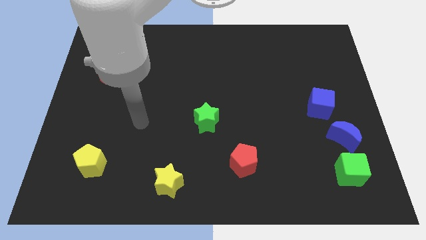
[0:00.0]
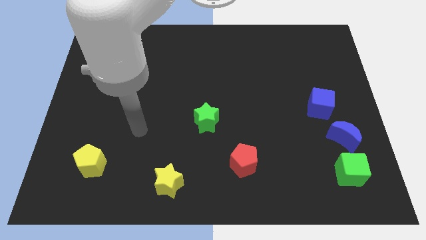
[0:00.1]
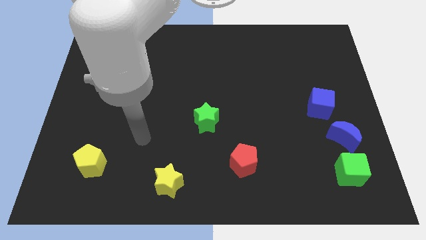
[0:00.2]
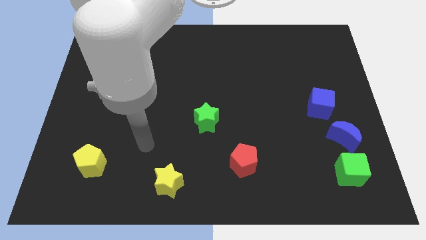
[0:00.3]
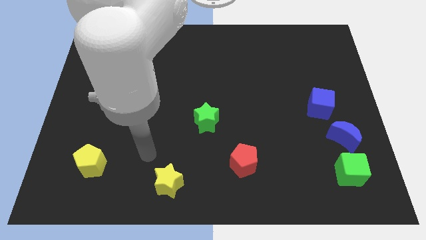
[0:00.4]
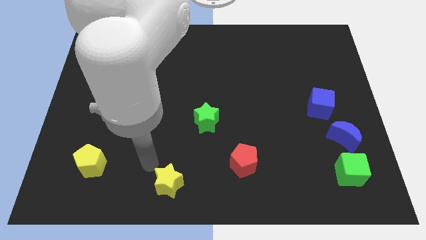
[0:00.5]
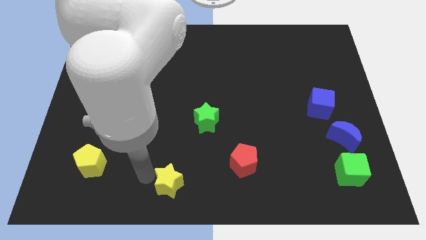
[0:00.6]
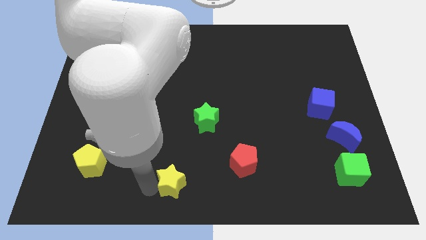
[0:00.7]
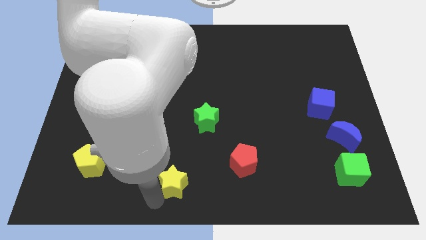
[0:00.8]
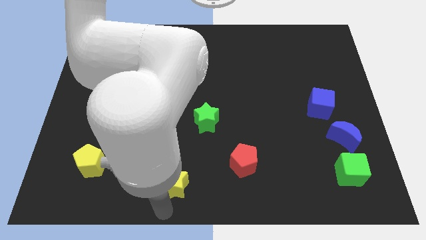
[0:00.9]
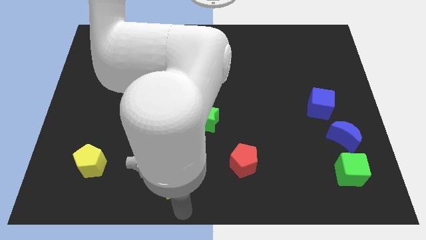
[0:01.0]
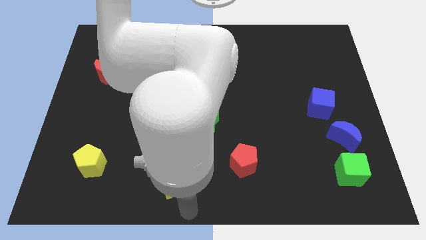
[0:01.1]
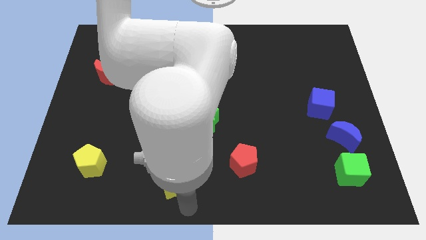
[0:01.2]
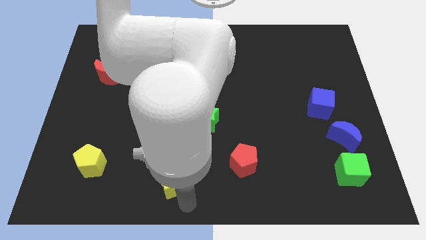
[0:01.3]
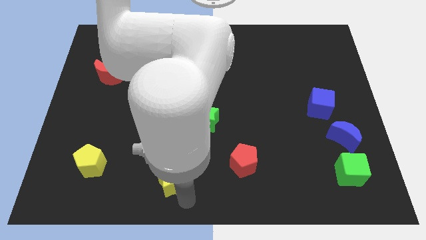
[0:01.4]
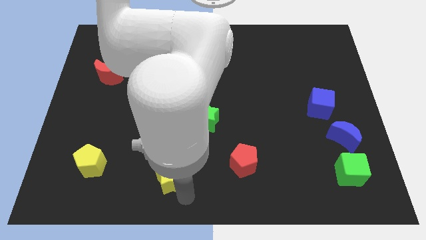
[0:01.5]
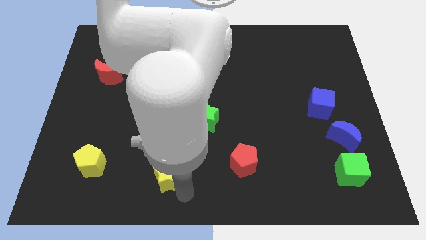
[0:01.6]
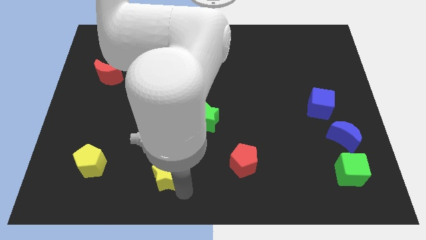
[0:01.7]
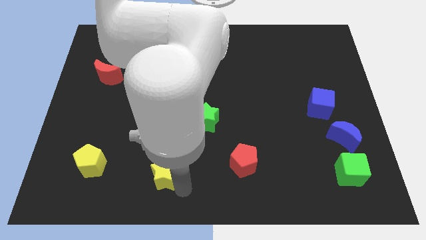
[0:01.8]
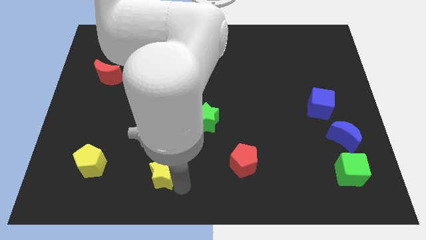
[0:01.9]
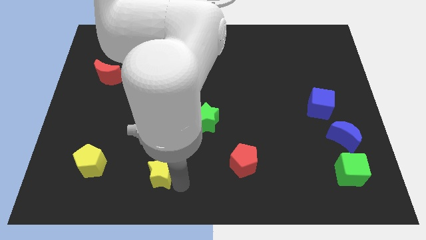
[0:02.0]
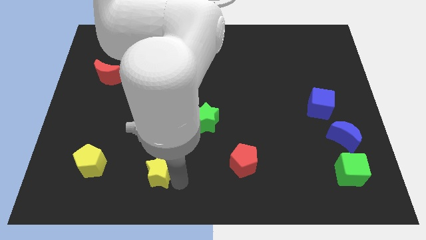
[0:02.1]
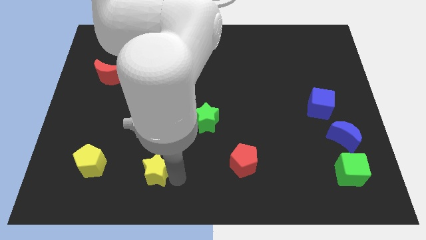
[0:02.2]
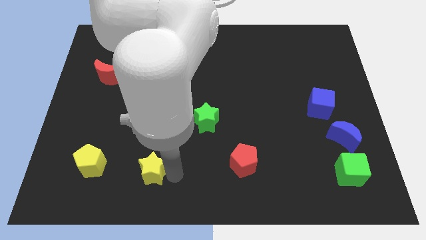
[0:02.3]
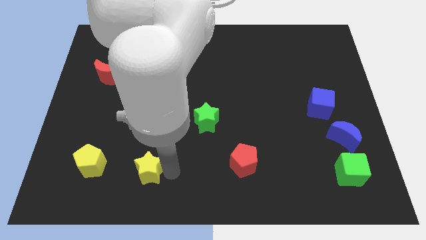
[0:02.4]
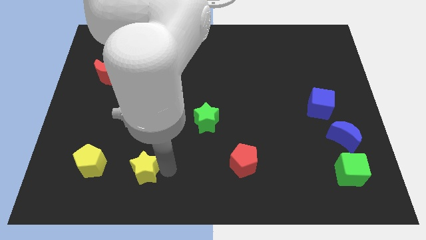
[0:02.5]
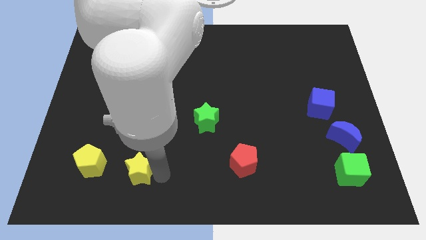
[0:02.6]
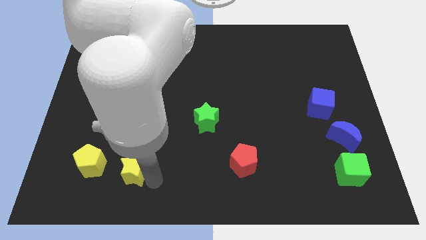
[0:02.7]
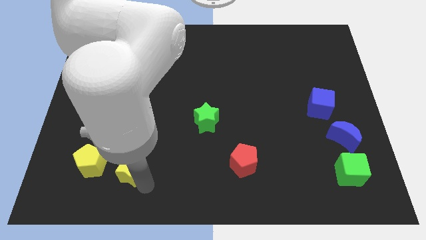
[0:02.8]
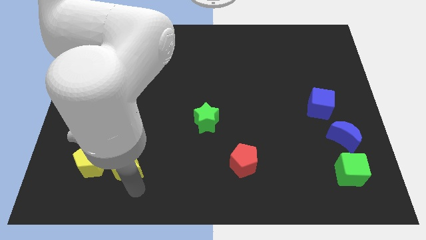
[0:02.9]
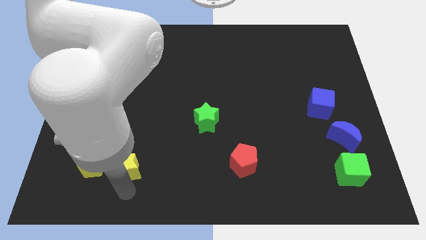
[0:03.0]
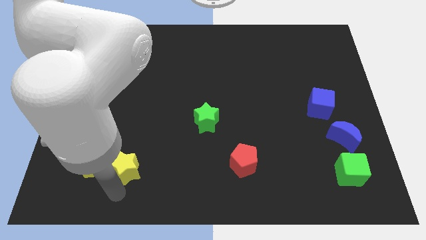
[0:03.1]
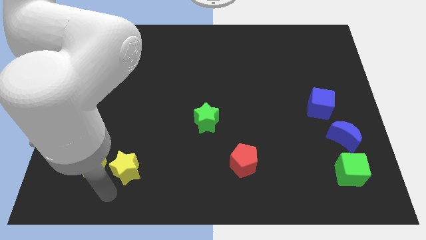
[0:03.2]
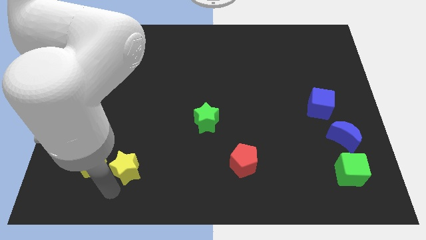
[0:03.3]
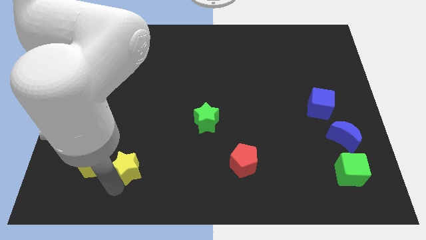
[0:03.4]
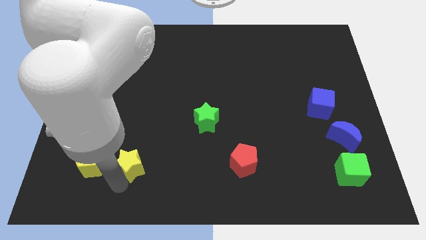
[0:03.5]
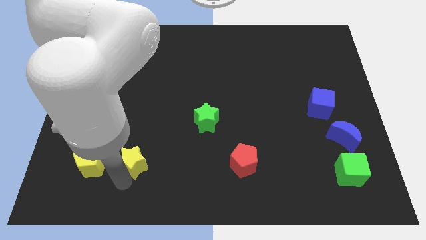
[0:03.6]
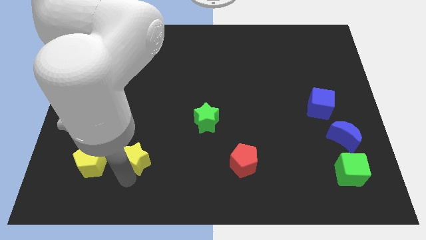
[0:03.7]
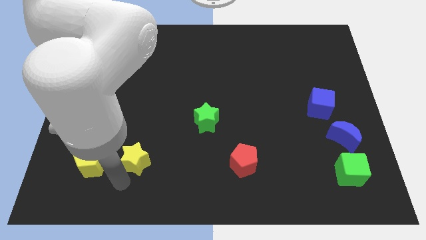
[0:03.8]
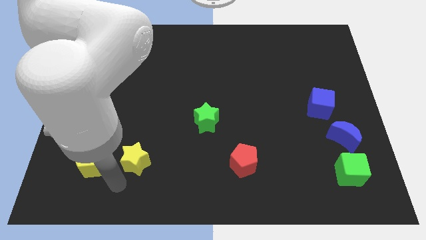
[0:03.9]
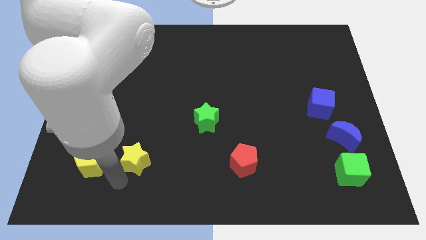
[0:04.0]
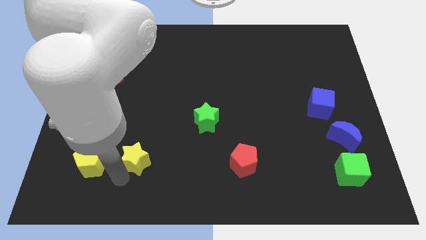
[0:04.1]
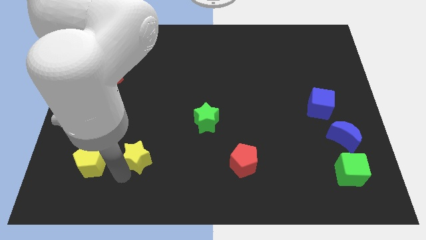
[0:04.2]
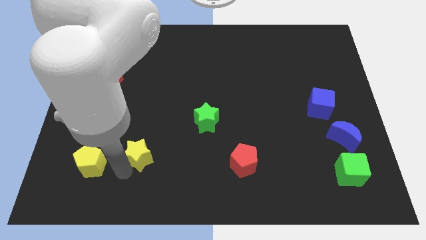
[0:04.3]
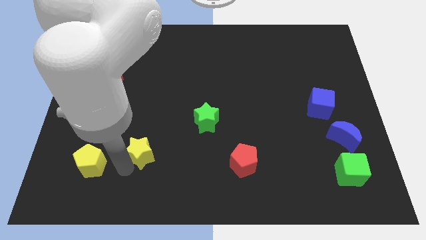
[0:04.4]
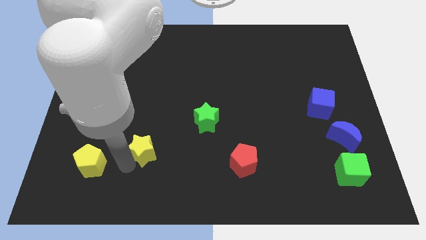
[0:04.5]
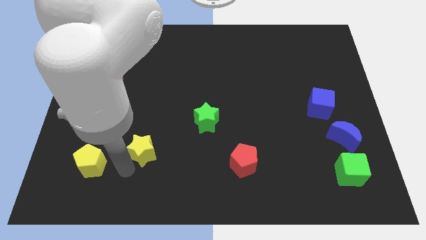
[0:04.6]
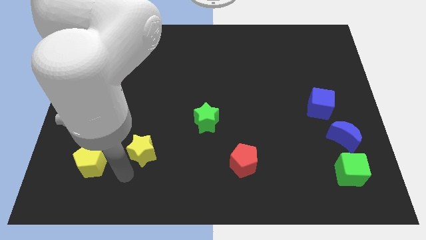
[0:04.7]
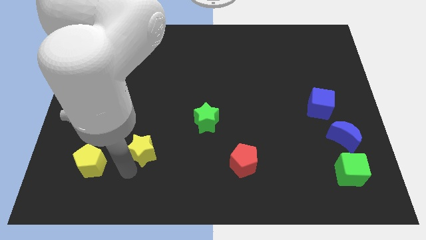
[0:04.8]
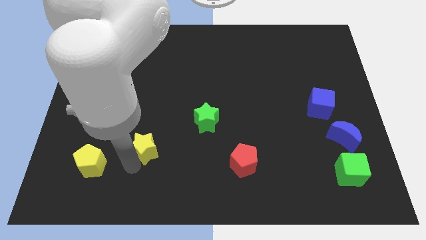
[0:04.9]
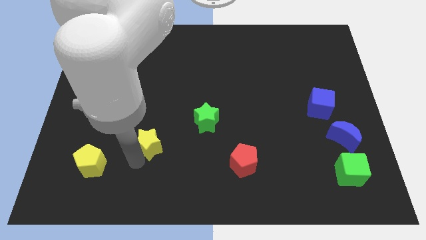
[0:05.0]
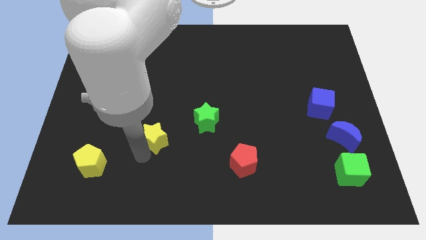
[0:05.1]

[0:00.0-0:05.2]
push the yellow star to the left side of the green star

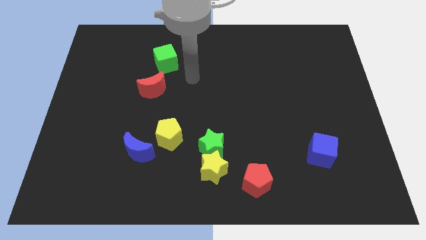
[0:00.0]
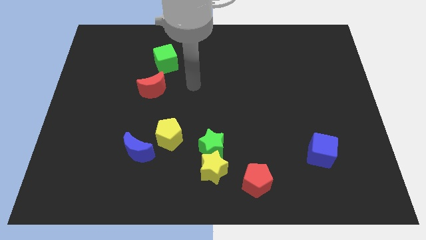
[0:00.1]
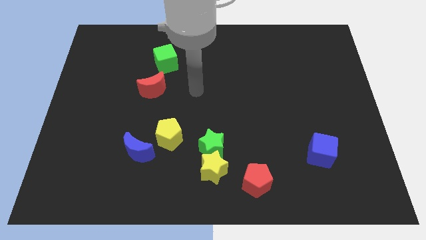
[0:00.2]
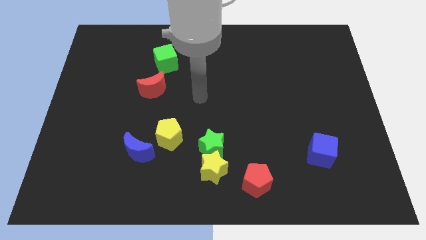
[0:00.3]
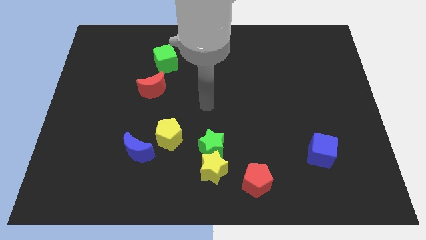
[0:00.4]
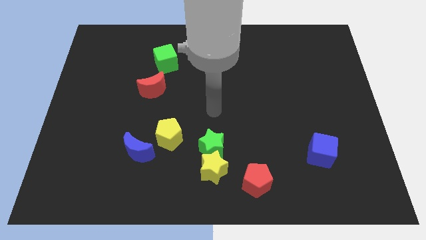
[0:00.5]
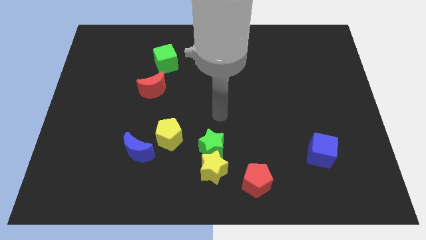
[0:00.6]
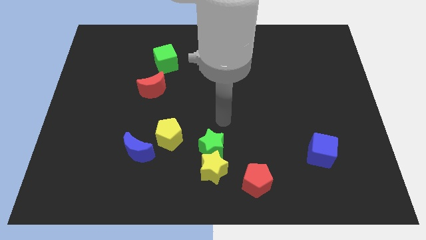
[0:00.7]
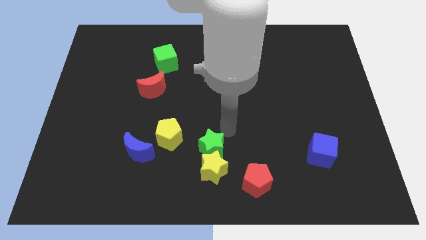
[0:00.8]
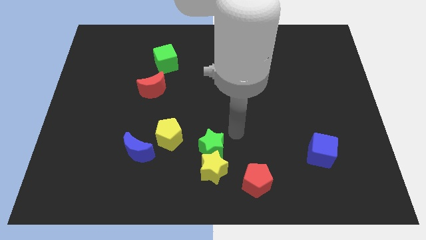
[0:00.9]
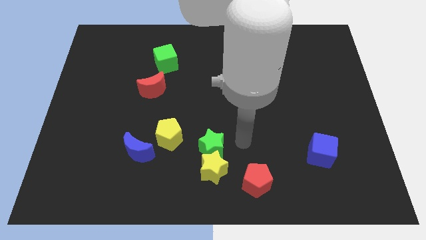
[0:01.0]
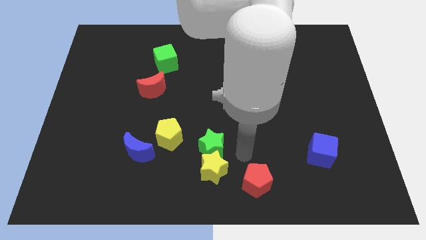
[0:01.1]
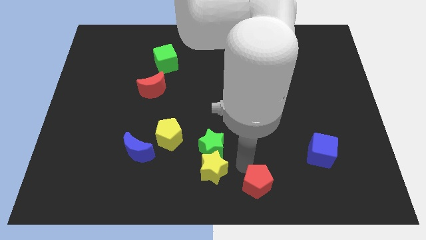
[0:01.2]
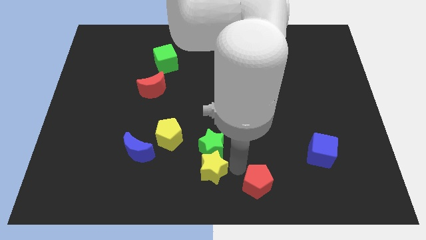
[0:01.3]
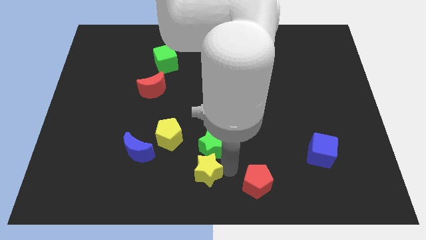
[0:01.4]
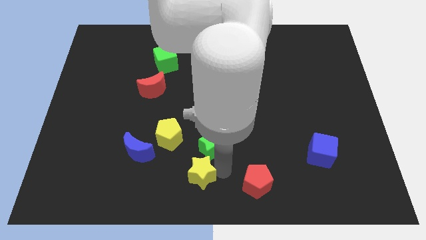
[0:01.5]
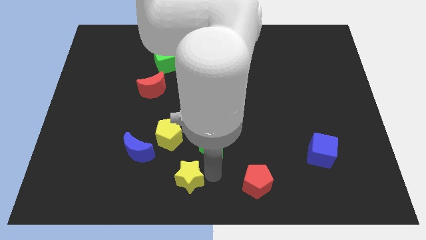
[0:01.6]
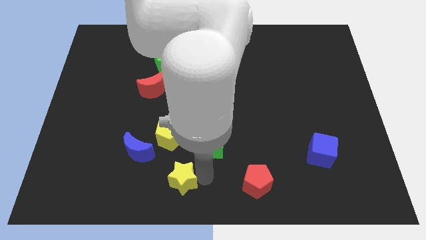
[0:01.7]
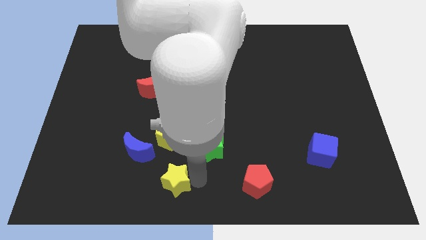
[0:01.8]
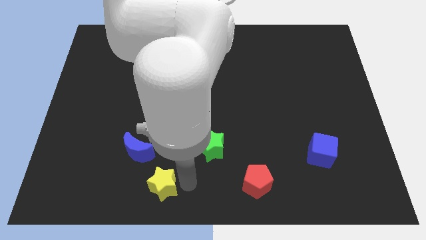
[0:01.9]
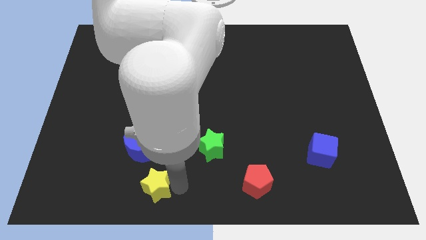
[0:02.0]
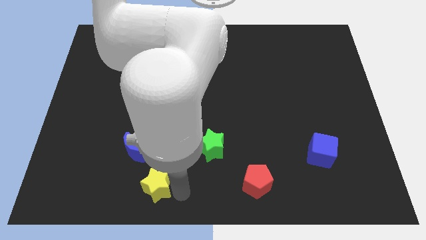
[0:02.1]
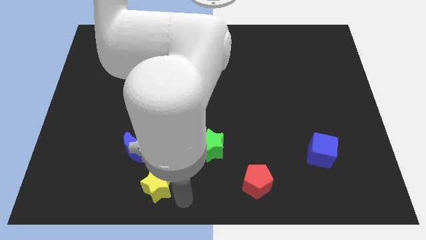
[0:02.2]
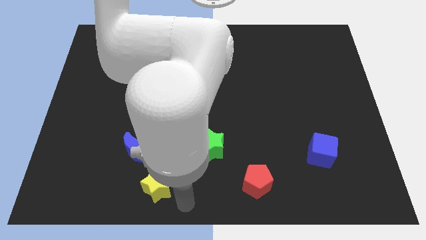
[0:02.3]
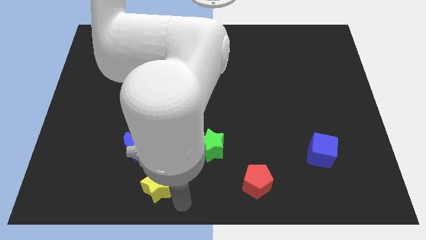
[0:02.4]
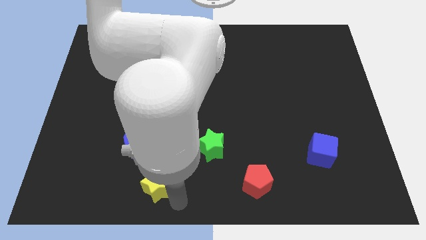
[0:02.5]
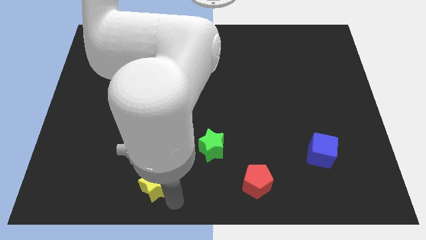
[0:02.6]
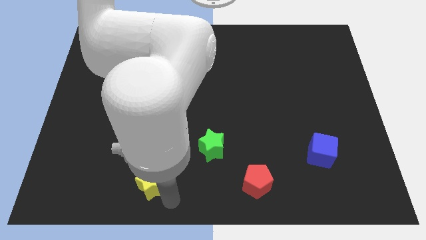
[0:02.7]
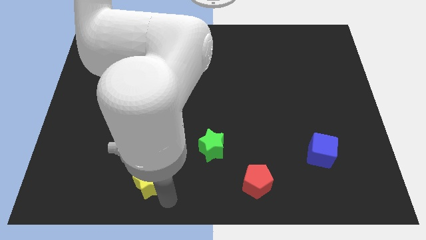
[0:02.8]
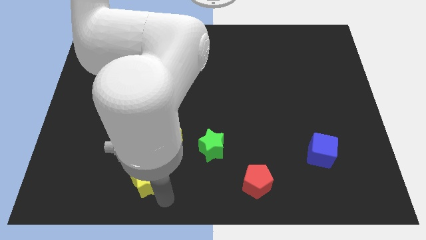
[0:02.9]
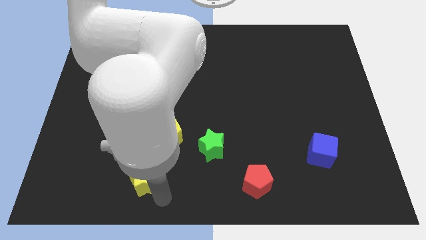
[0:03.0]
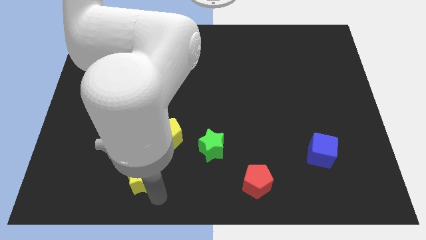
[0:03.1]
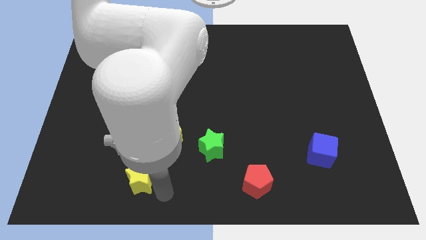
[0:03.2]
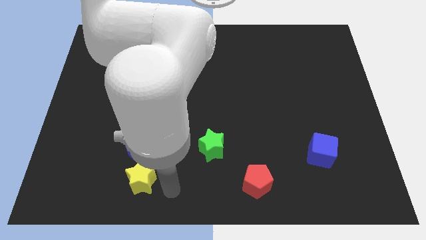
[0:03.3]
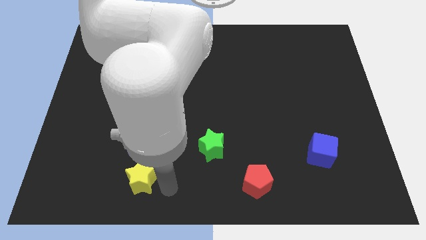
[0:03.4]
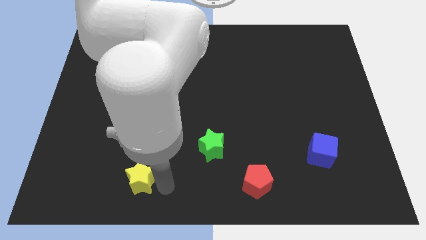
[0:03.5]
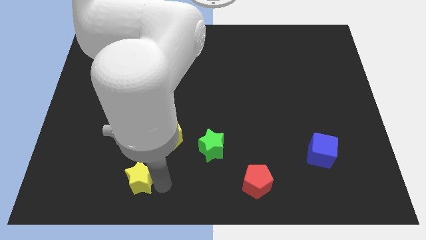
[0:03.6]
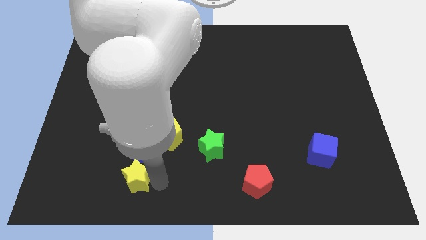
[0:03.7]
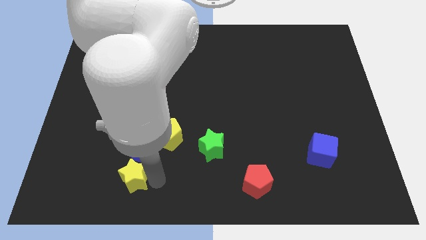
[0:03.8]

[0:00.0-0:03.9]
push the yellow star to the bottom left of the blue moon
